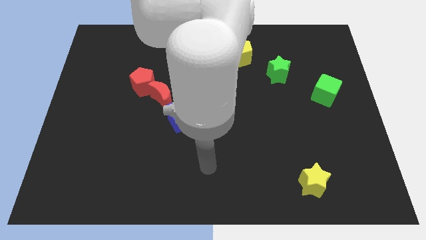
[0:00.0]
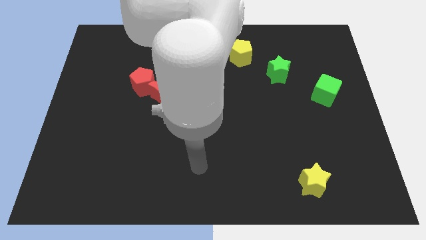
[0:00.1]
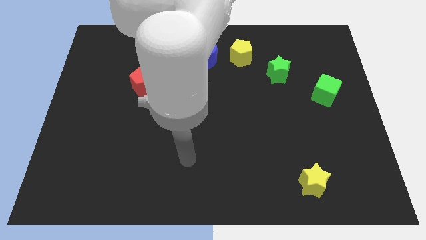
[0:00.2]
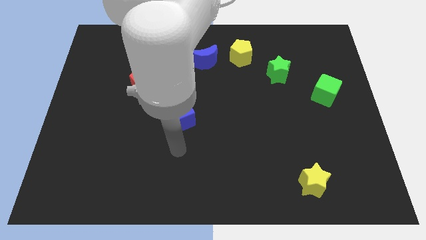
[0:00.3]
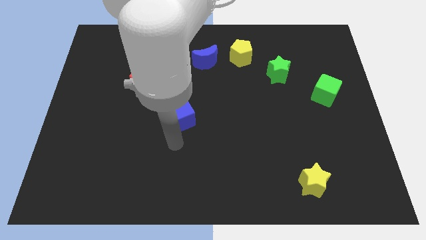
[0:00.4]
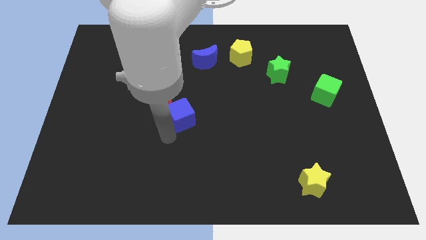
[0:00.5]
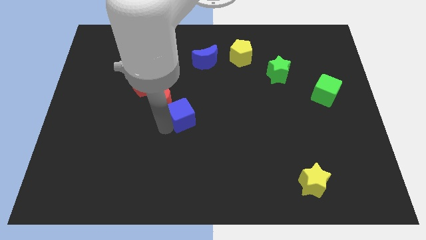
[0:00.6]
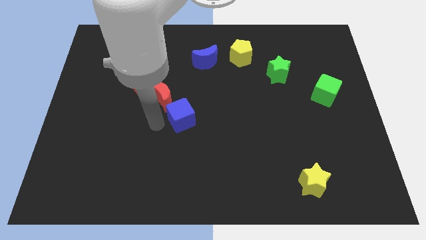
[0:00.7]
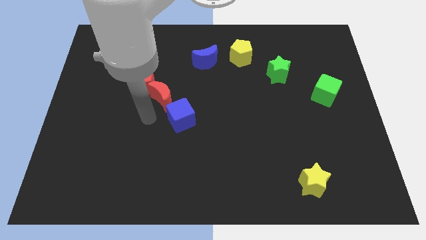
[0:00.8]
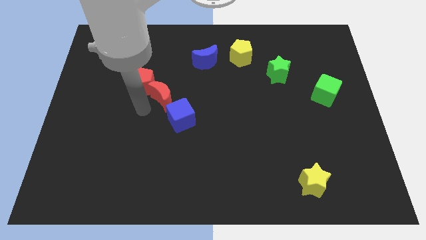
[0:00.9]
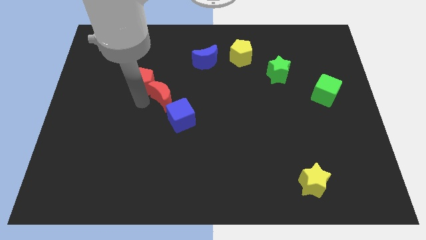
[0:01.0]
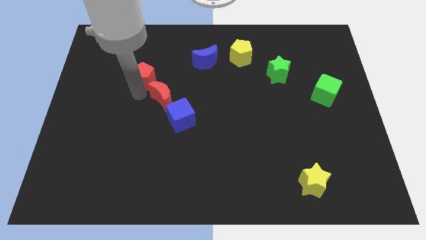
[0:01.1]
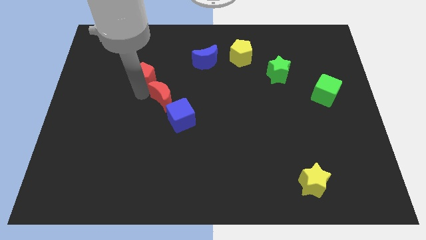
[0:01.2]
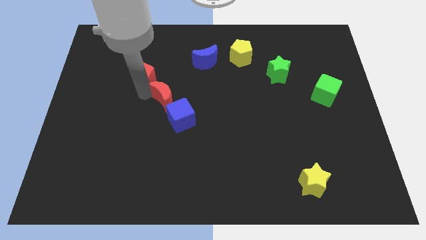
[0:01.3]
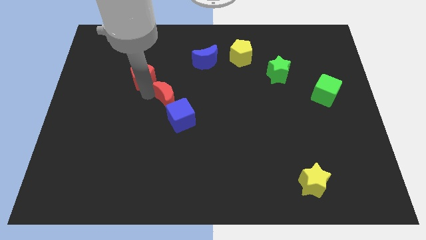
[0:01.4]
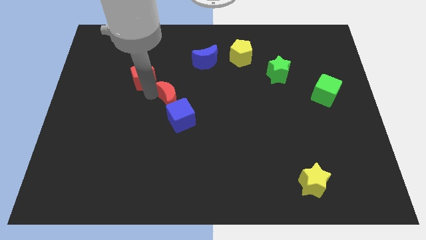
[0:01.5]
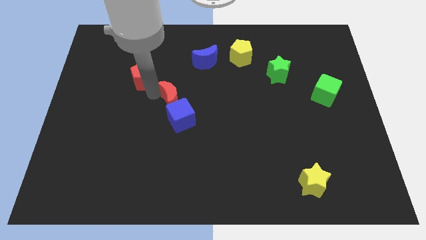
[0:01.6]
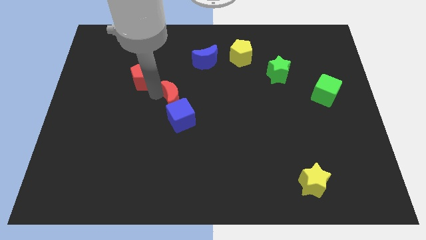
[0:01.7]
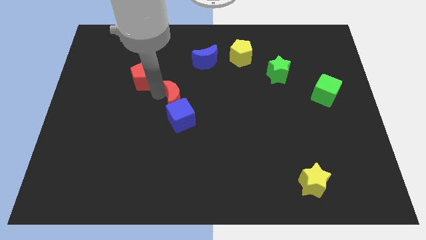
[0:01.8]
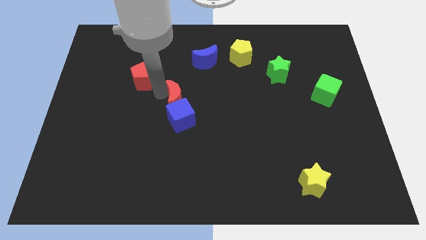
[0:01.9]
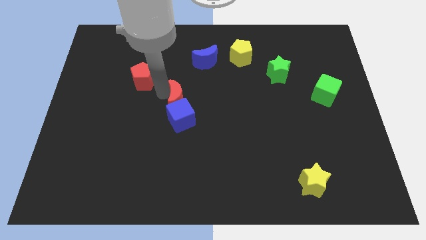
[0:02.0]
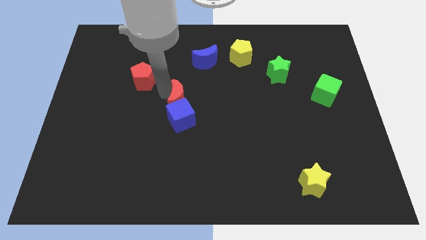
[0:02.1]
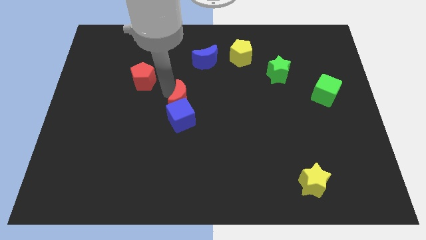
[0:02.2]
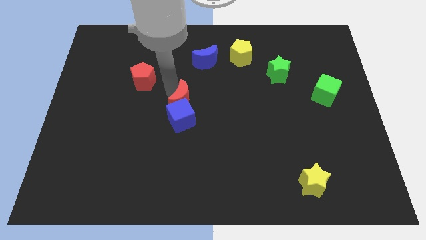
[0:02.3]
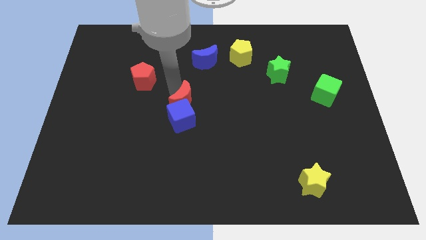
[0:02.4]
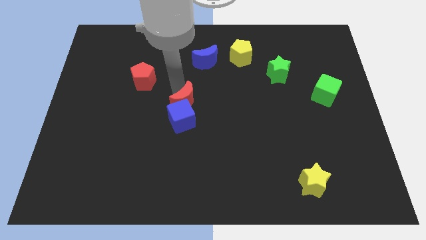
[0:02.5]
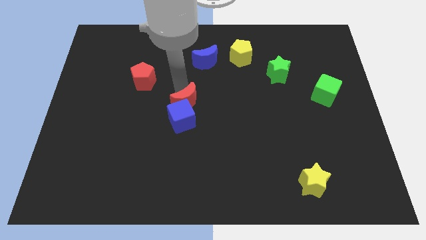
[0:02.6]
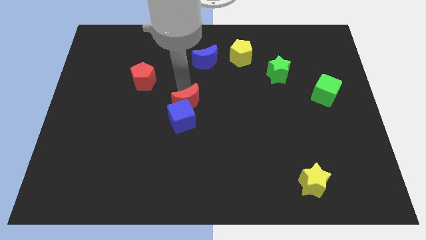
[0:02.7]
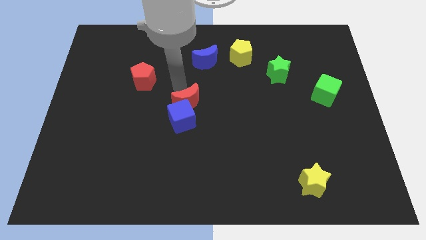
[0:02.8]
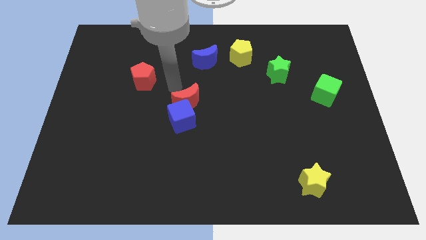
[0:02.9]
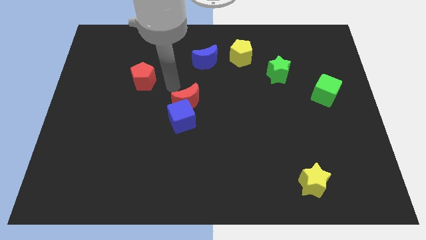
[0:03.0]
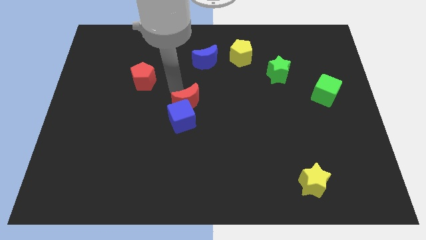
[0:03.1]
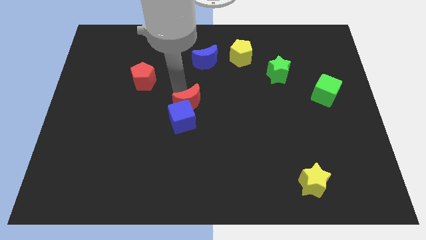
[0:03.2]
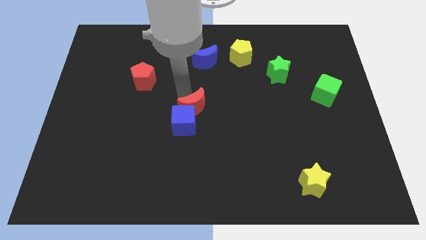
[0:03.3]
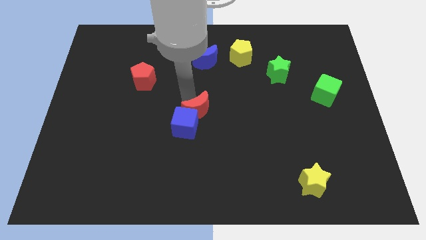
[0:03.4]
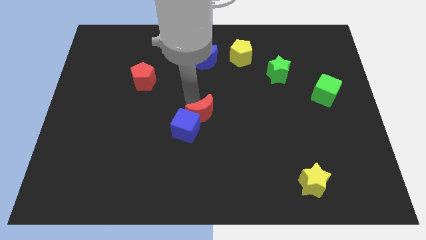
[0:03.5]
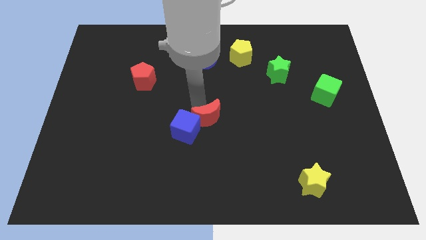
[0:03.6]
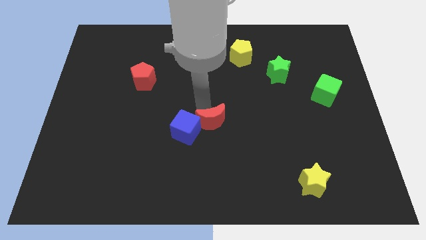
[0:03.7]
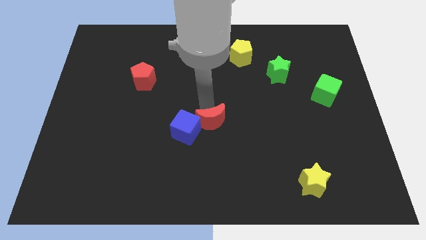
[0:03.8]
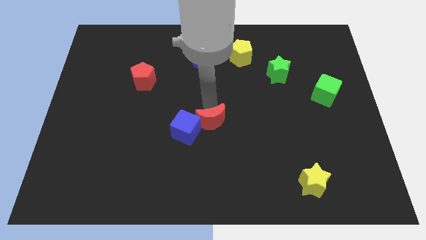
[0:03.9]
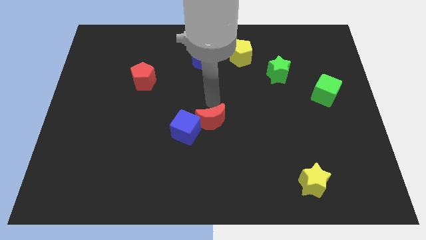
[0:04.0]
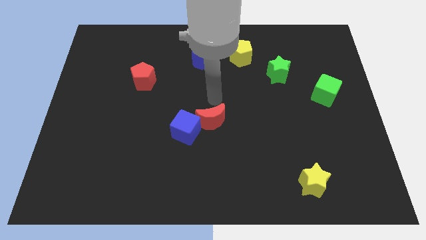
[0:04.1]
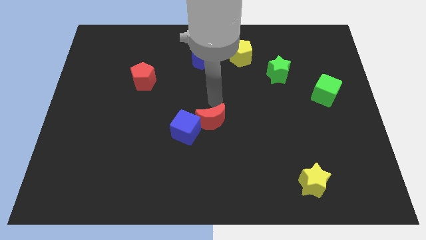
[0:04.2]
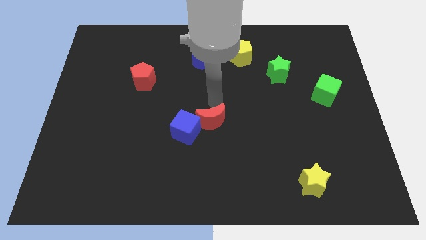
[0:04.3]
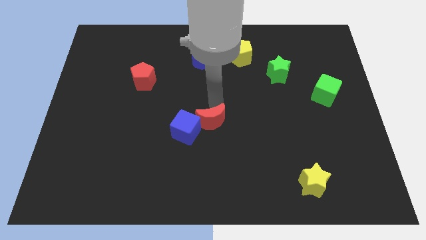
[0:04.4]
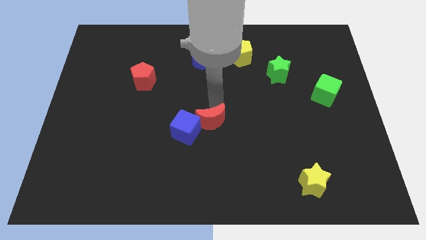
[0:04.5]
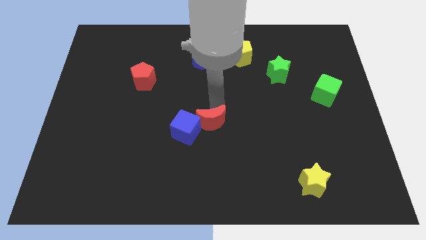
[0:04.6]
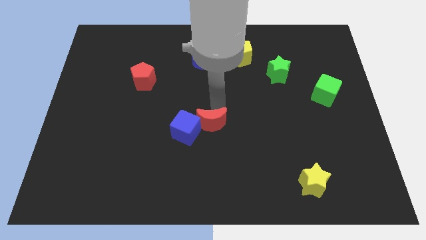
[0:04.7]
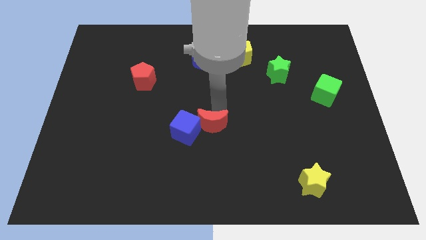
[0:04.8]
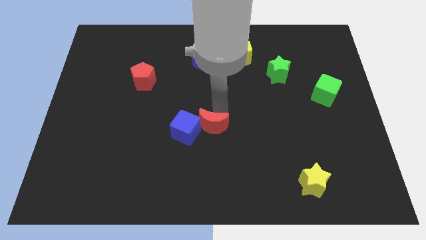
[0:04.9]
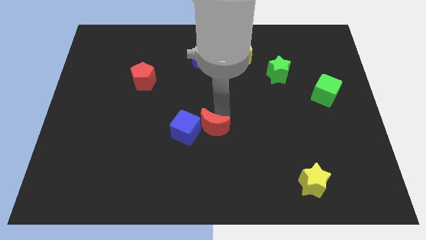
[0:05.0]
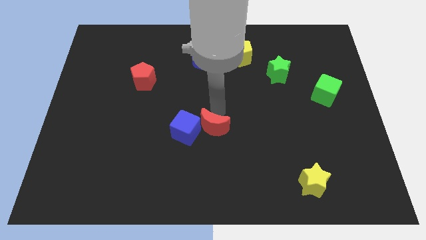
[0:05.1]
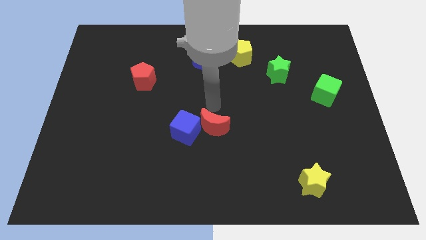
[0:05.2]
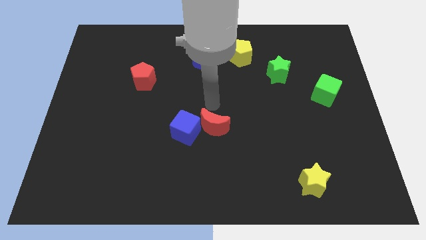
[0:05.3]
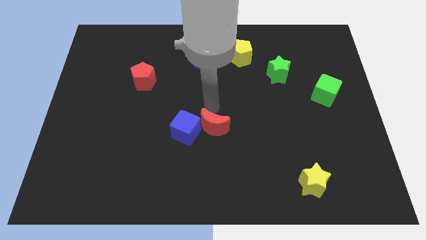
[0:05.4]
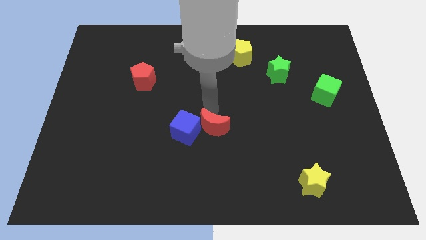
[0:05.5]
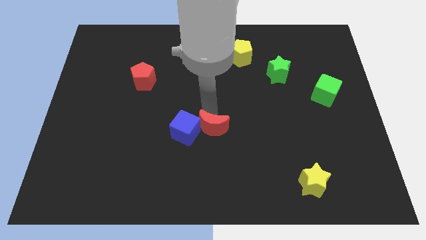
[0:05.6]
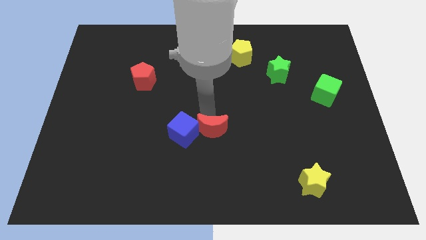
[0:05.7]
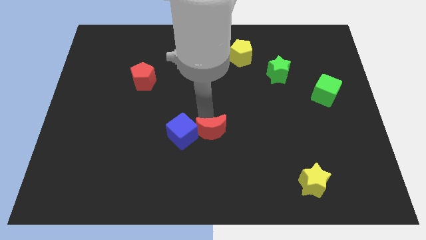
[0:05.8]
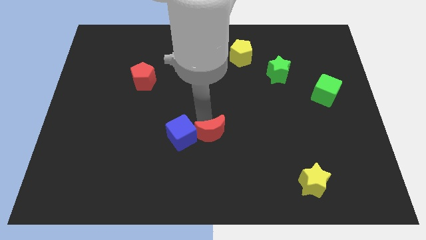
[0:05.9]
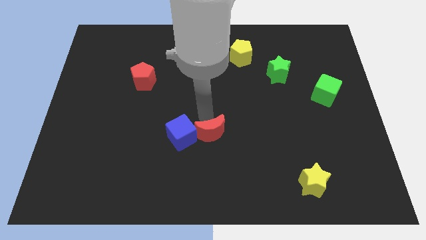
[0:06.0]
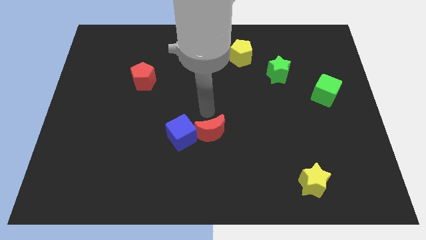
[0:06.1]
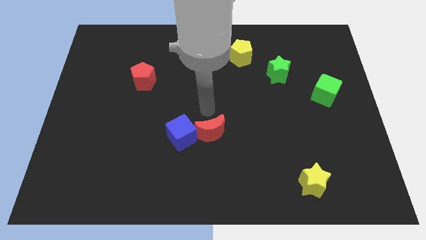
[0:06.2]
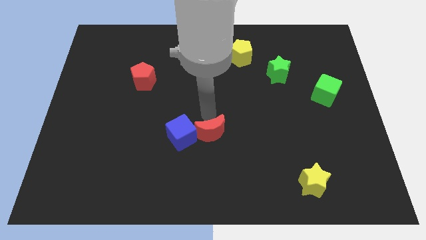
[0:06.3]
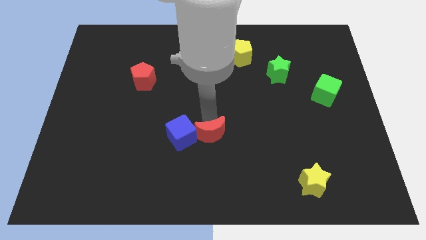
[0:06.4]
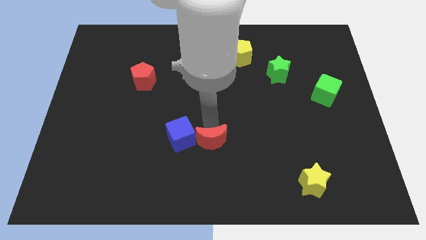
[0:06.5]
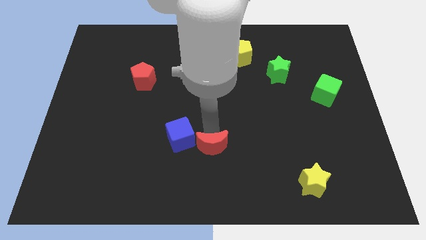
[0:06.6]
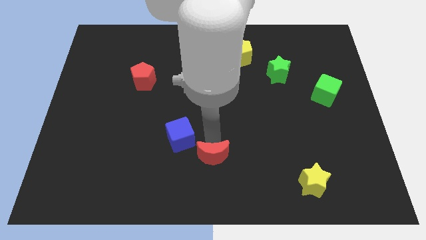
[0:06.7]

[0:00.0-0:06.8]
put the red moon to the bottom side

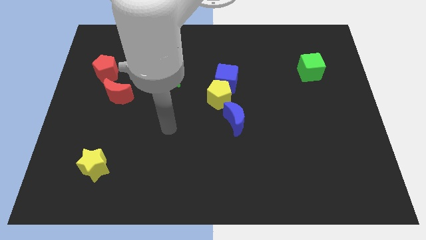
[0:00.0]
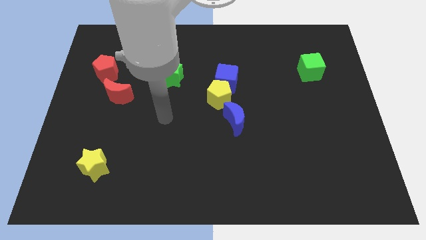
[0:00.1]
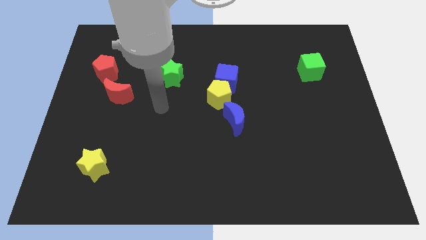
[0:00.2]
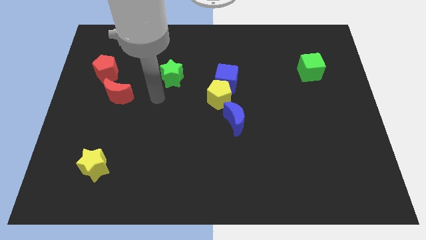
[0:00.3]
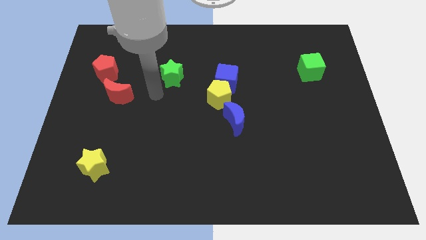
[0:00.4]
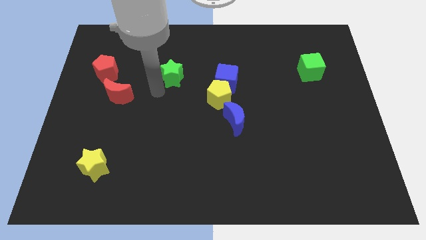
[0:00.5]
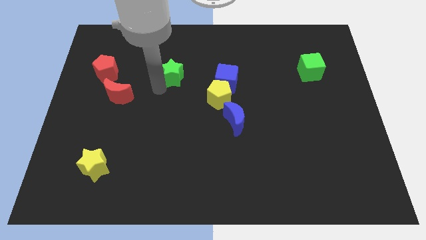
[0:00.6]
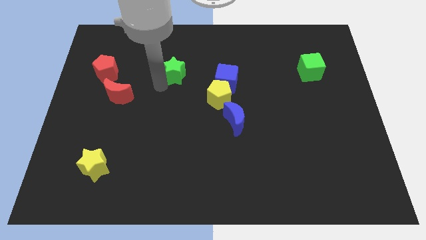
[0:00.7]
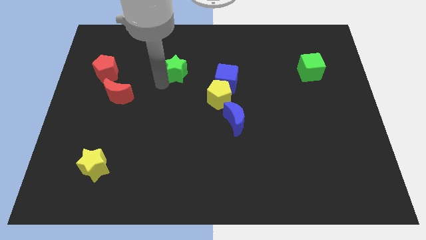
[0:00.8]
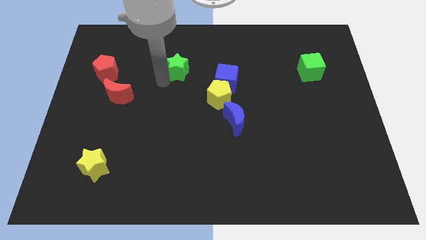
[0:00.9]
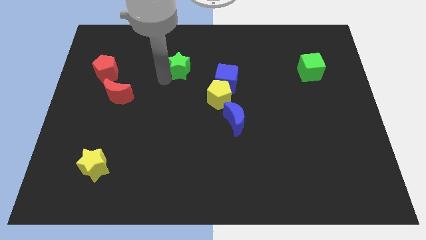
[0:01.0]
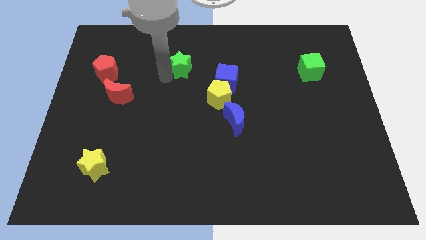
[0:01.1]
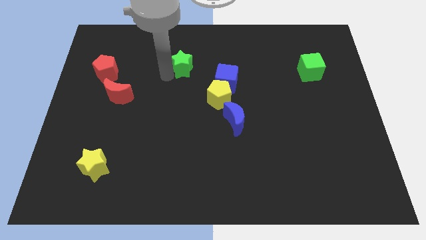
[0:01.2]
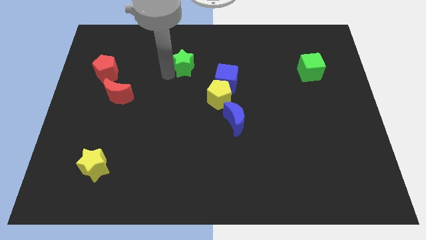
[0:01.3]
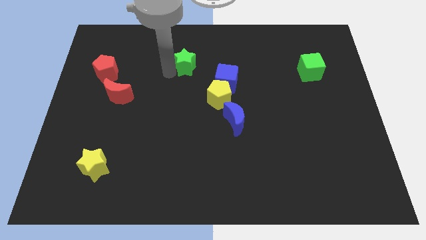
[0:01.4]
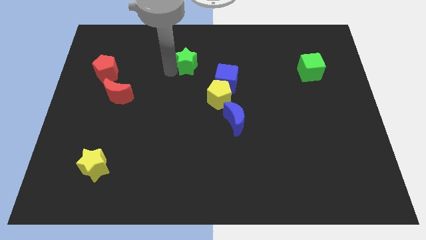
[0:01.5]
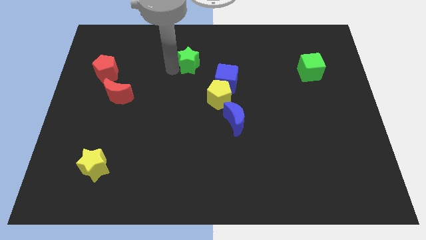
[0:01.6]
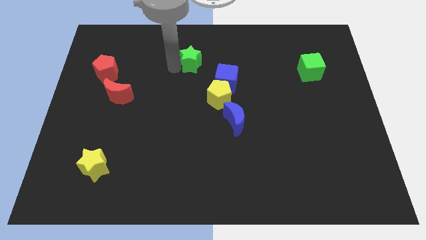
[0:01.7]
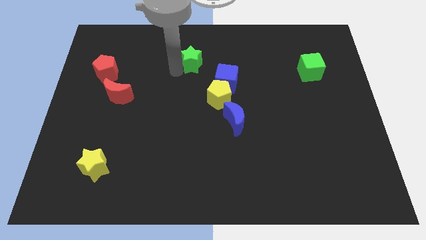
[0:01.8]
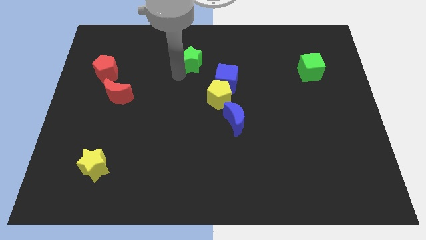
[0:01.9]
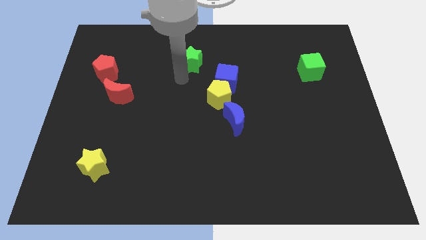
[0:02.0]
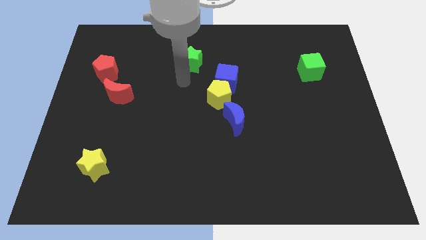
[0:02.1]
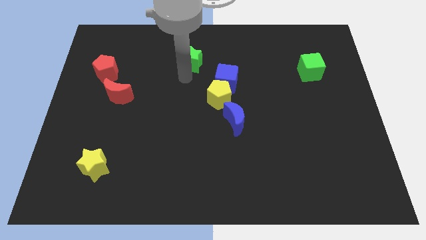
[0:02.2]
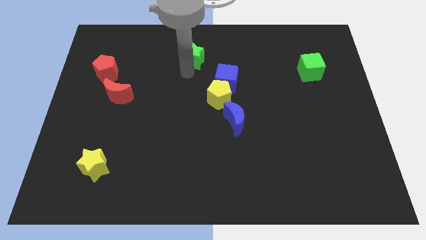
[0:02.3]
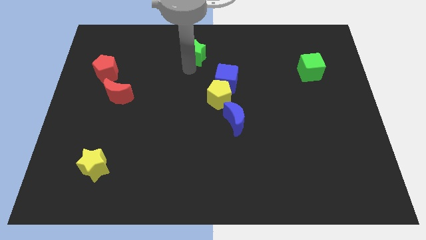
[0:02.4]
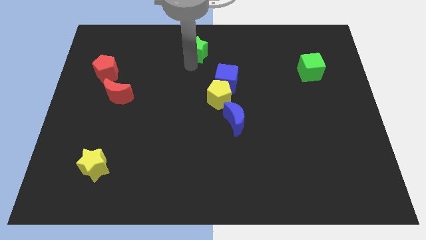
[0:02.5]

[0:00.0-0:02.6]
push the green star to the top
